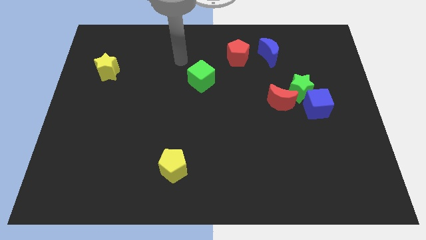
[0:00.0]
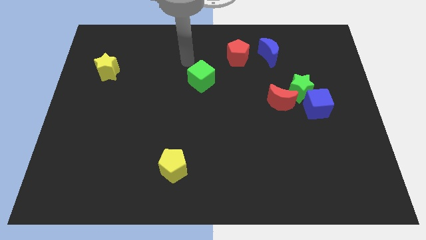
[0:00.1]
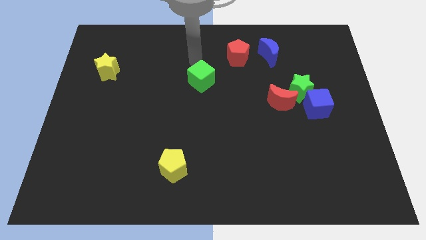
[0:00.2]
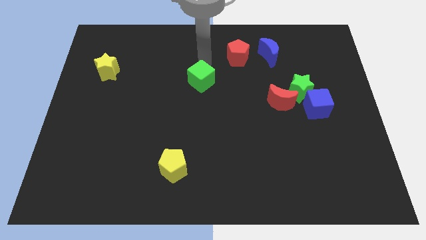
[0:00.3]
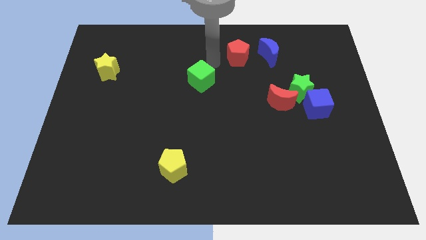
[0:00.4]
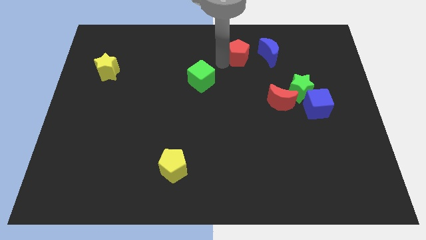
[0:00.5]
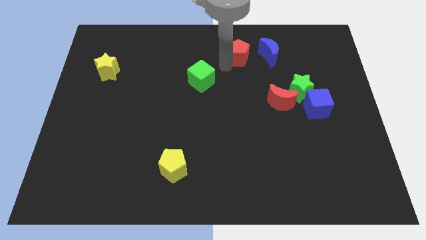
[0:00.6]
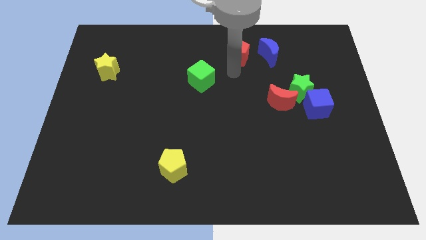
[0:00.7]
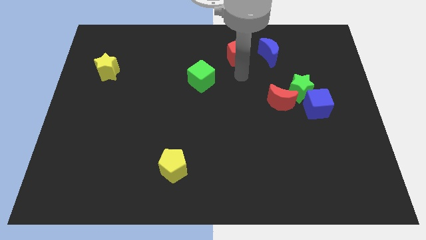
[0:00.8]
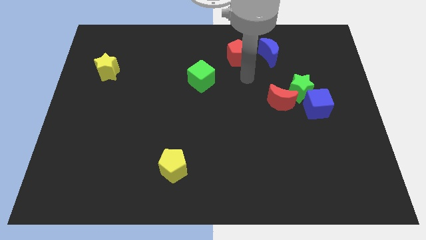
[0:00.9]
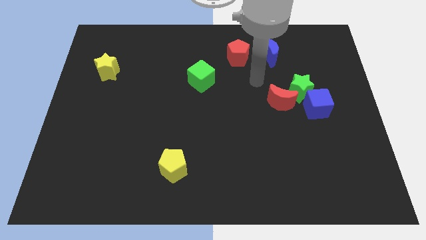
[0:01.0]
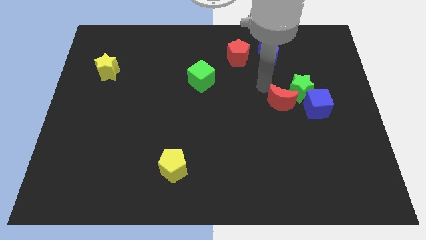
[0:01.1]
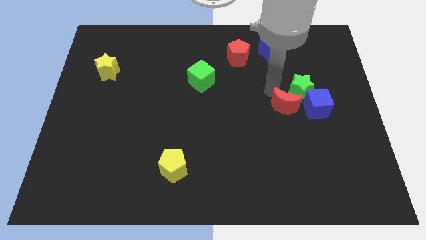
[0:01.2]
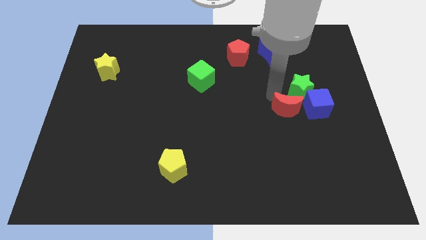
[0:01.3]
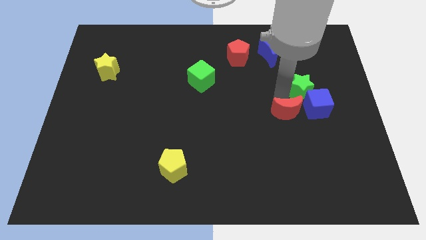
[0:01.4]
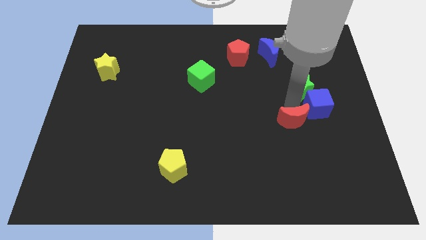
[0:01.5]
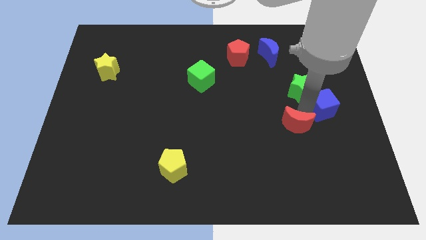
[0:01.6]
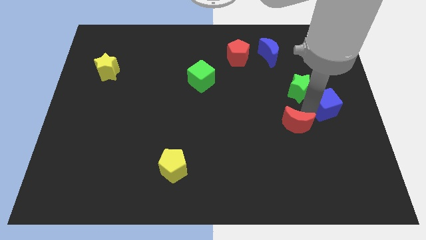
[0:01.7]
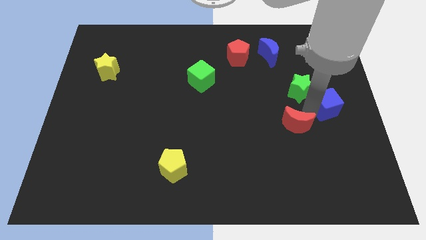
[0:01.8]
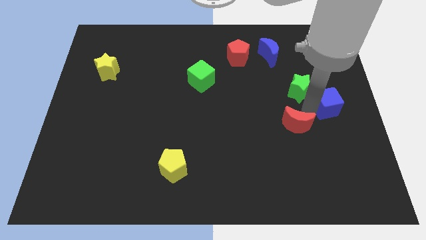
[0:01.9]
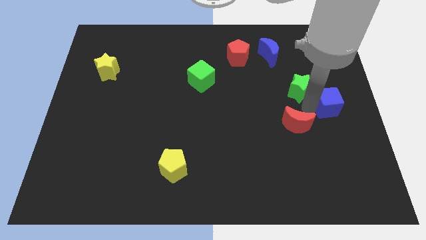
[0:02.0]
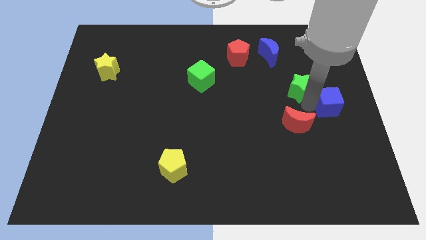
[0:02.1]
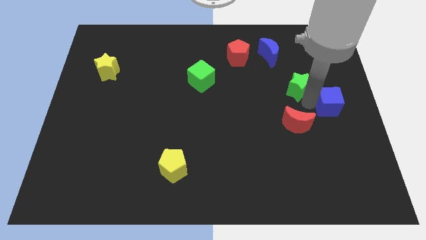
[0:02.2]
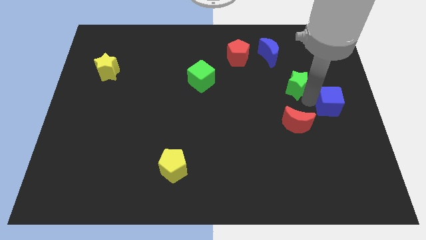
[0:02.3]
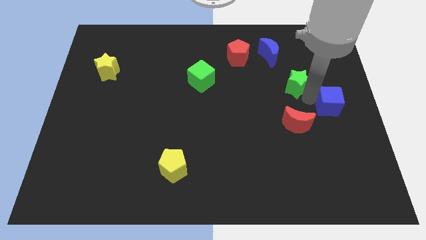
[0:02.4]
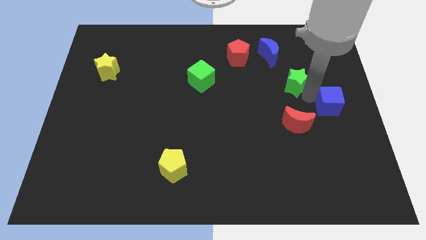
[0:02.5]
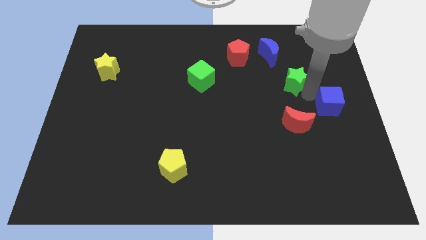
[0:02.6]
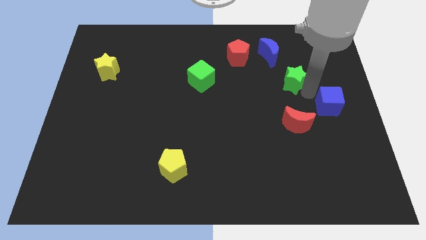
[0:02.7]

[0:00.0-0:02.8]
separate the green star from the blue cube and red moon

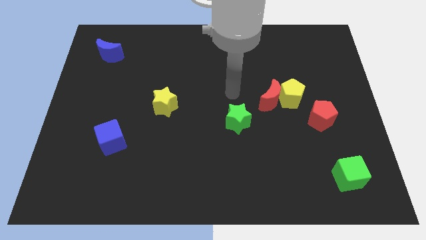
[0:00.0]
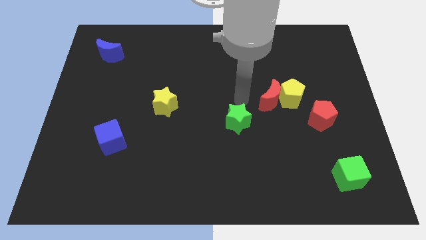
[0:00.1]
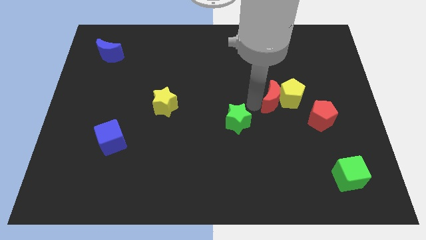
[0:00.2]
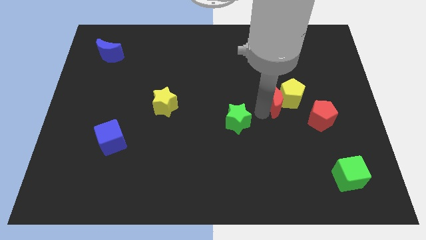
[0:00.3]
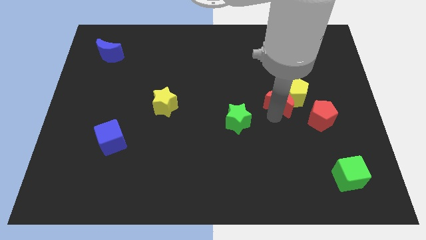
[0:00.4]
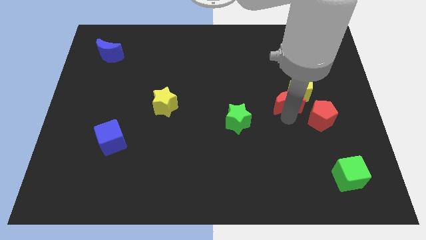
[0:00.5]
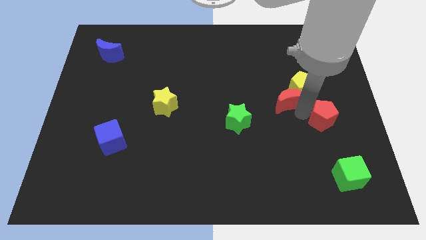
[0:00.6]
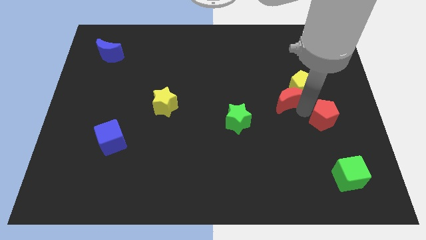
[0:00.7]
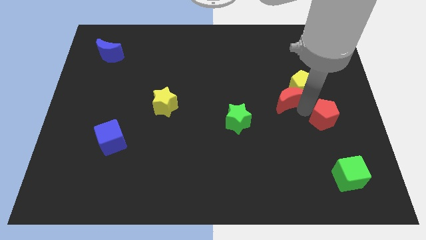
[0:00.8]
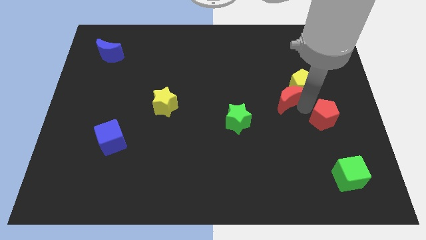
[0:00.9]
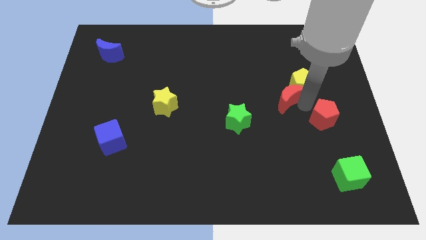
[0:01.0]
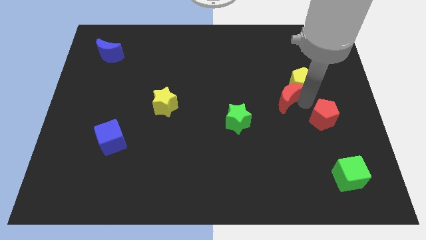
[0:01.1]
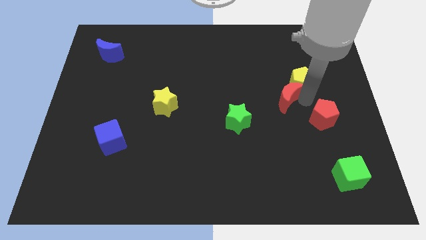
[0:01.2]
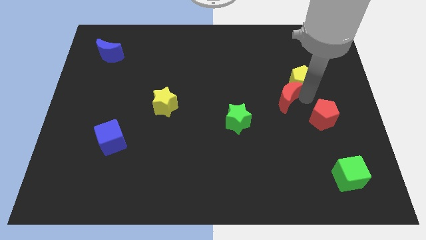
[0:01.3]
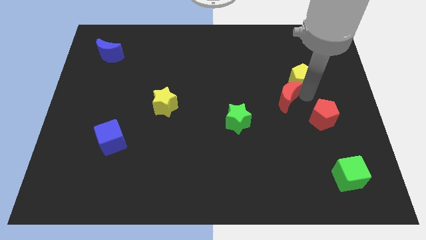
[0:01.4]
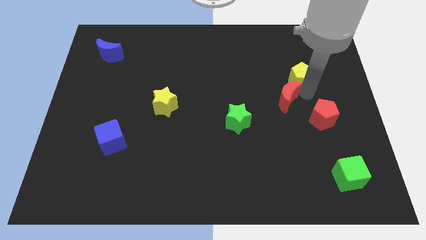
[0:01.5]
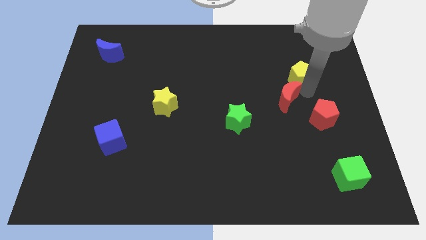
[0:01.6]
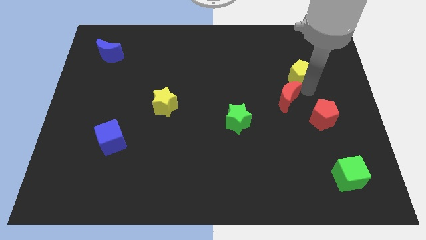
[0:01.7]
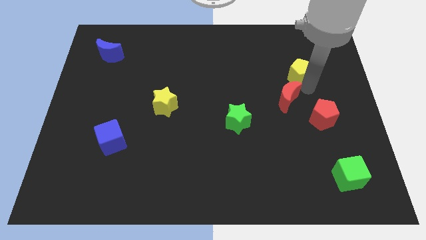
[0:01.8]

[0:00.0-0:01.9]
separate the yellow pentagon from the red moon and red pentagon

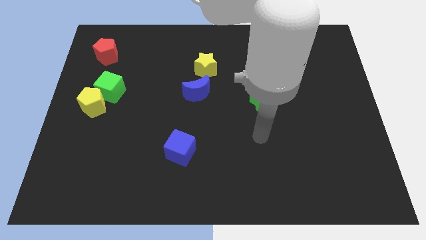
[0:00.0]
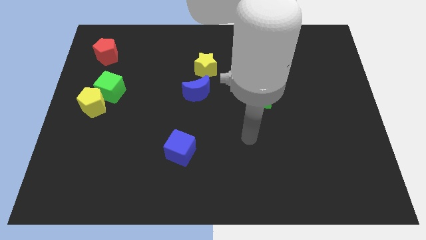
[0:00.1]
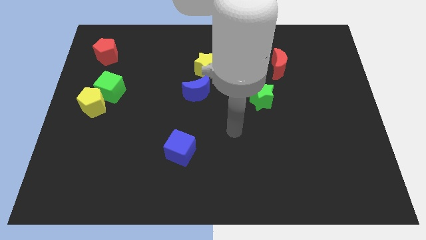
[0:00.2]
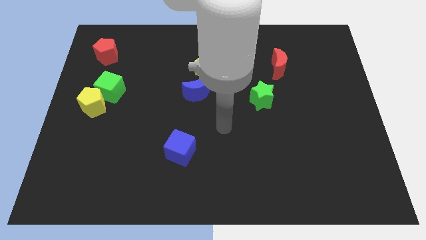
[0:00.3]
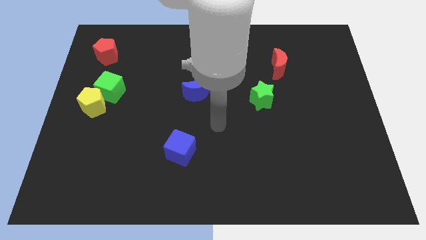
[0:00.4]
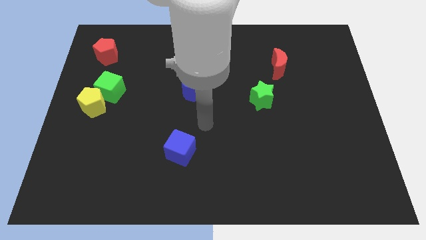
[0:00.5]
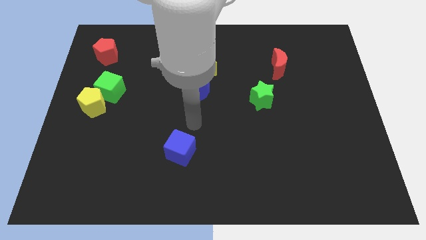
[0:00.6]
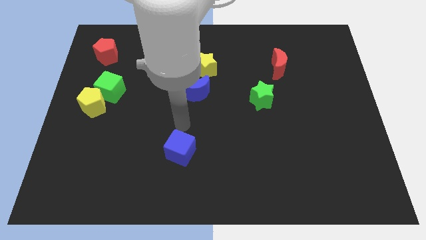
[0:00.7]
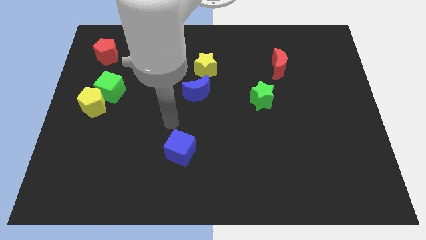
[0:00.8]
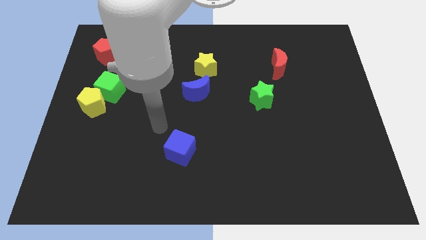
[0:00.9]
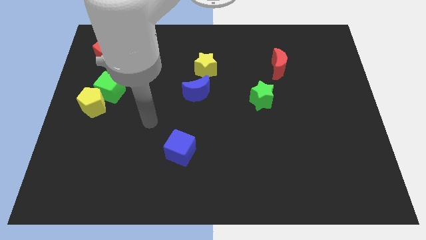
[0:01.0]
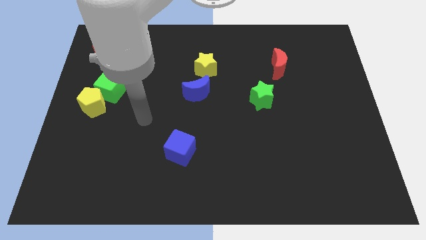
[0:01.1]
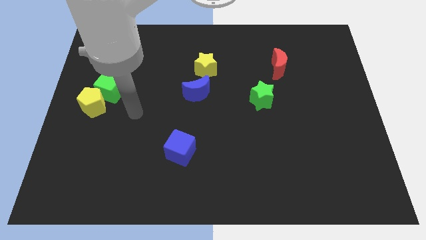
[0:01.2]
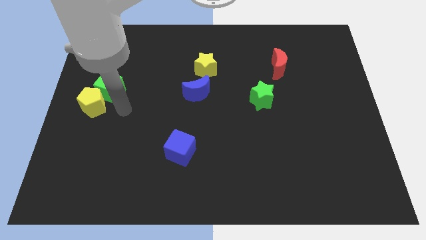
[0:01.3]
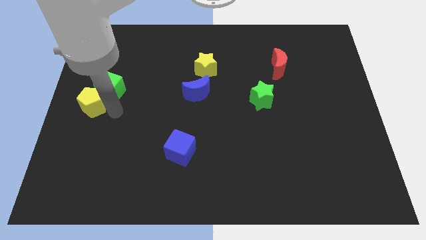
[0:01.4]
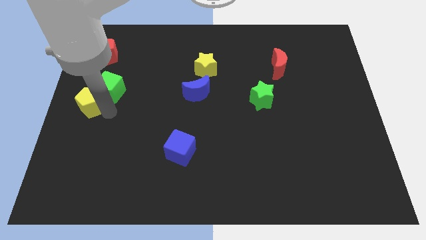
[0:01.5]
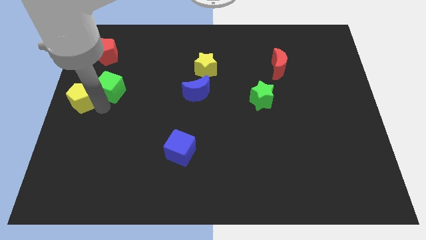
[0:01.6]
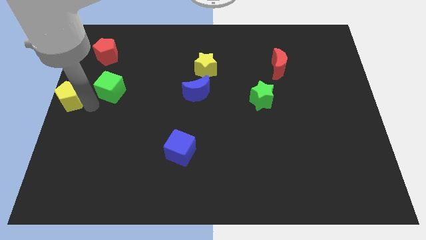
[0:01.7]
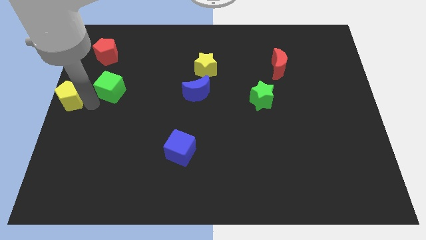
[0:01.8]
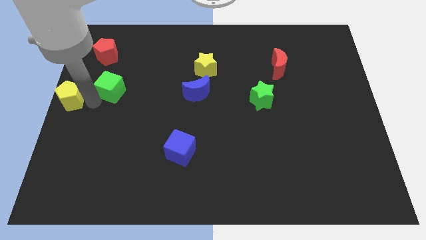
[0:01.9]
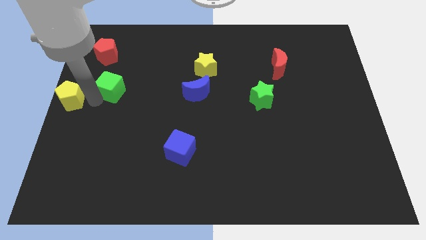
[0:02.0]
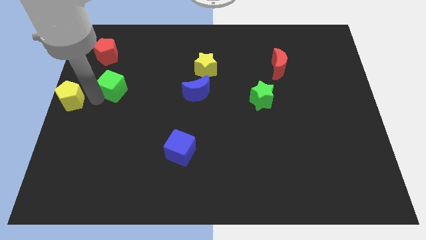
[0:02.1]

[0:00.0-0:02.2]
move the green cube away from the yellow pentagon

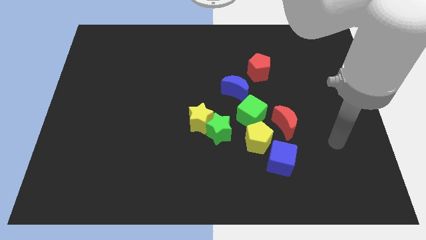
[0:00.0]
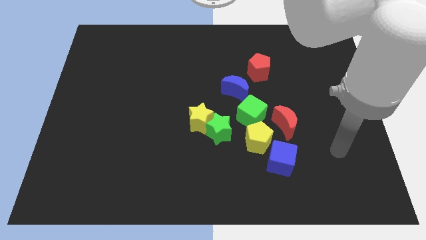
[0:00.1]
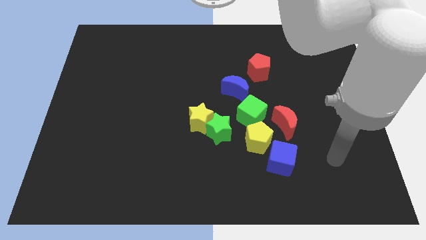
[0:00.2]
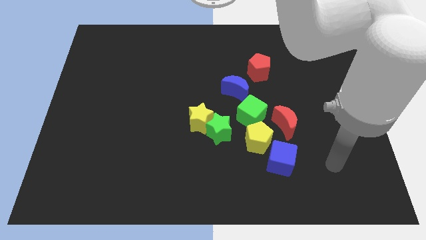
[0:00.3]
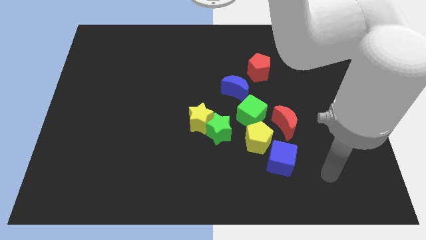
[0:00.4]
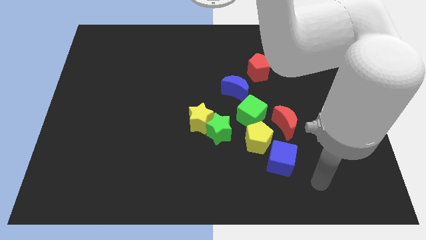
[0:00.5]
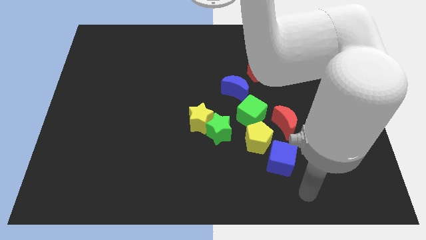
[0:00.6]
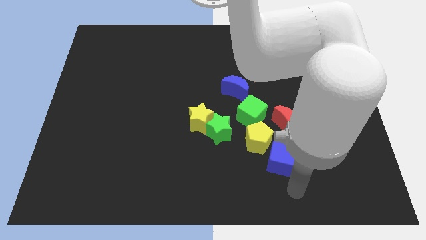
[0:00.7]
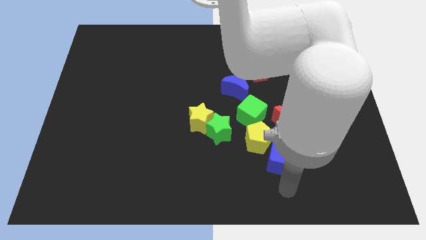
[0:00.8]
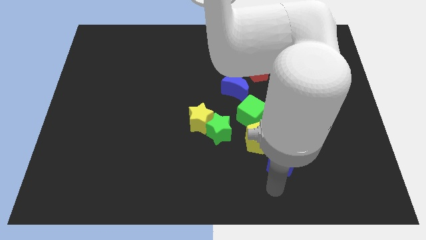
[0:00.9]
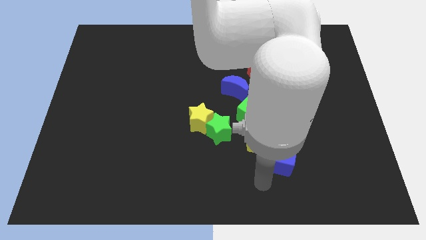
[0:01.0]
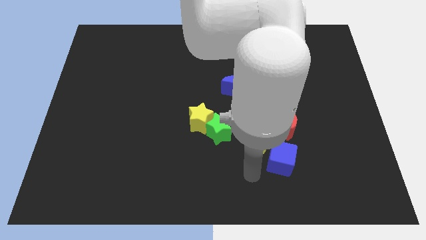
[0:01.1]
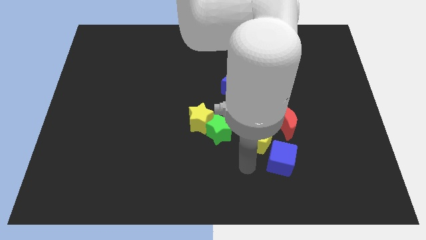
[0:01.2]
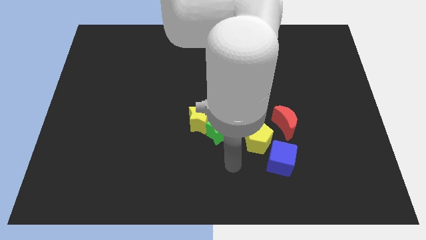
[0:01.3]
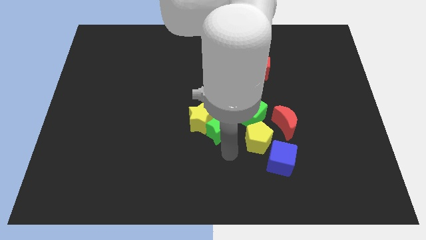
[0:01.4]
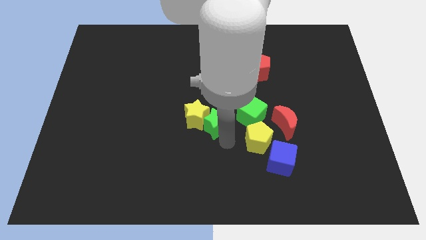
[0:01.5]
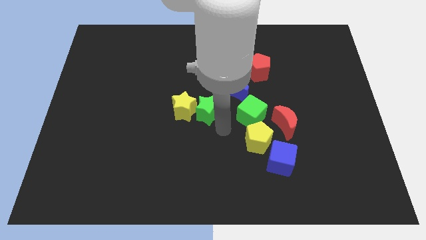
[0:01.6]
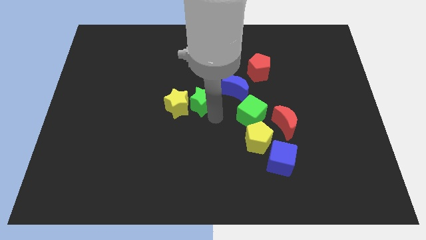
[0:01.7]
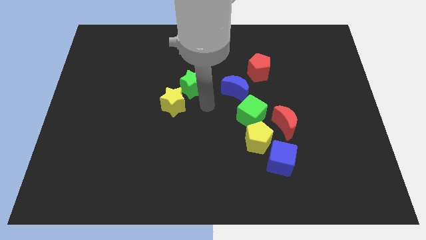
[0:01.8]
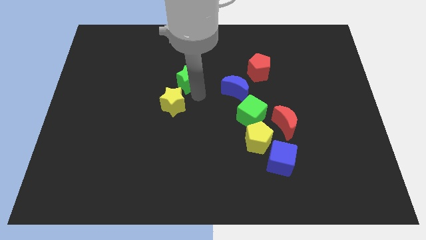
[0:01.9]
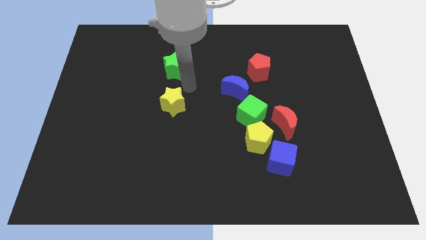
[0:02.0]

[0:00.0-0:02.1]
separate the yellow star from the green star

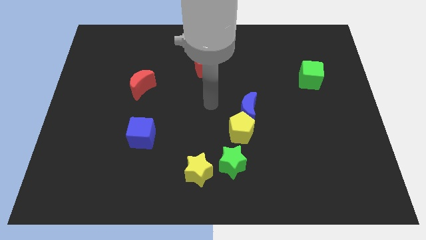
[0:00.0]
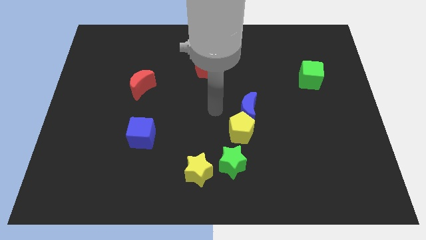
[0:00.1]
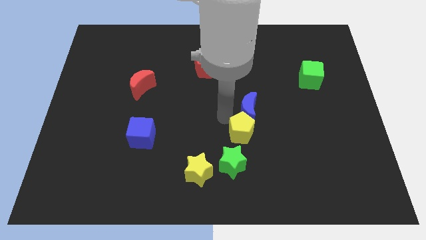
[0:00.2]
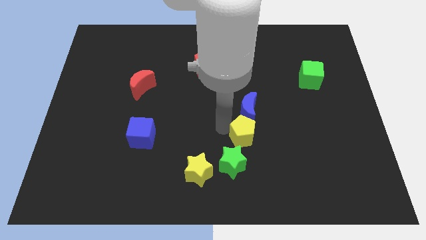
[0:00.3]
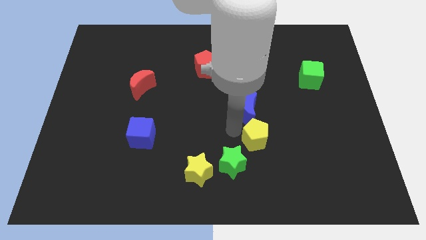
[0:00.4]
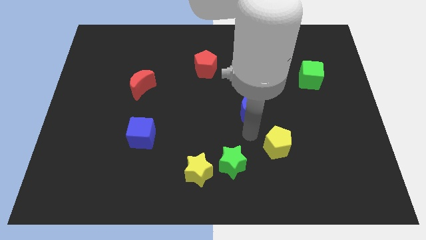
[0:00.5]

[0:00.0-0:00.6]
move the blue moon away from the yellow pentagon
